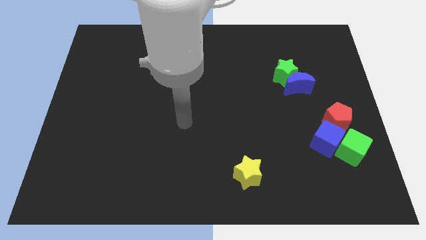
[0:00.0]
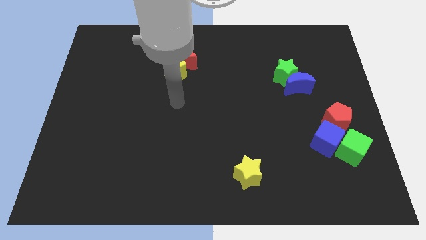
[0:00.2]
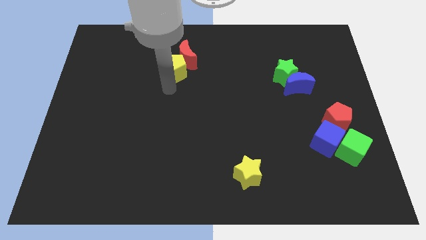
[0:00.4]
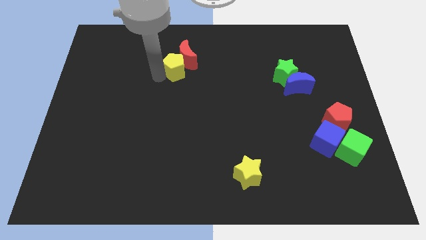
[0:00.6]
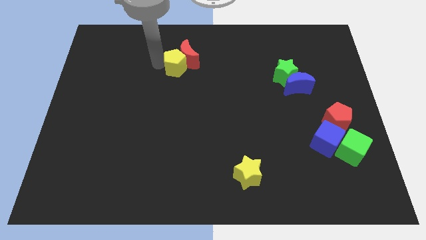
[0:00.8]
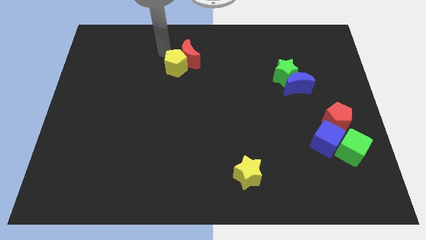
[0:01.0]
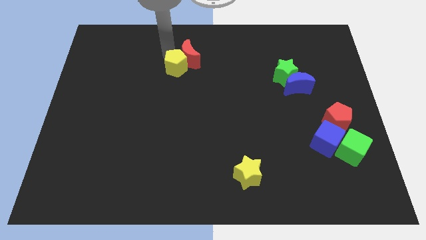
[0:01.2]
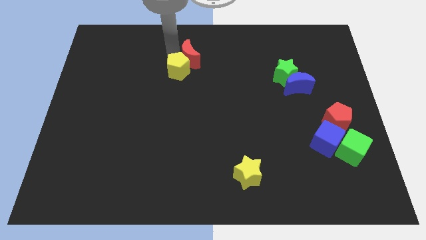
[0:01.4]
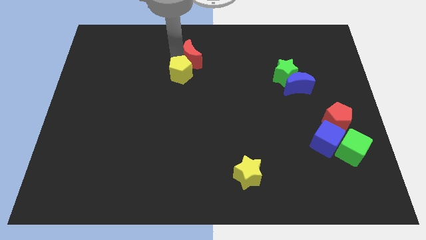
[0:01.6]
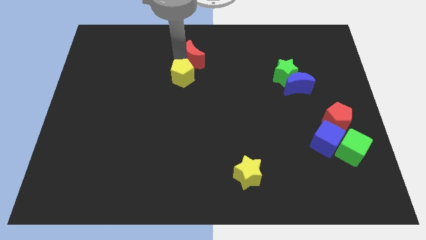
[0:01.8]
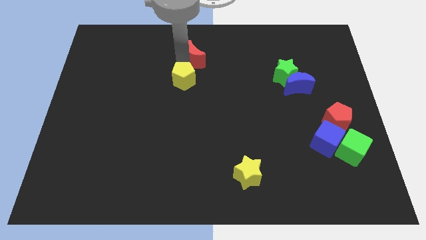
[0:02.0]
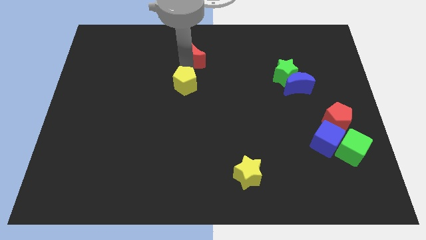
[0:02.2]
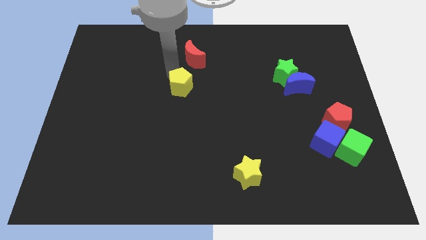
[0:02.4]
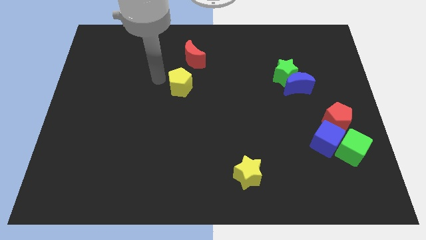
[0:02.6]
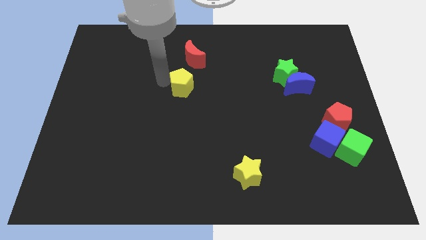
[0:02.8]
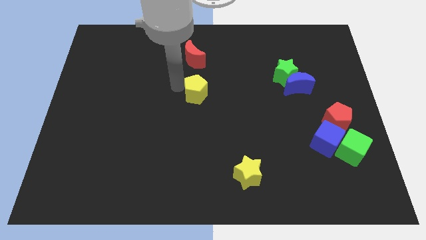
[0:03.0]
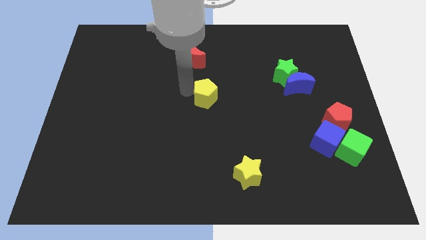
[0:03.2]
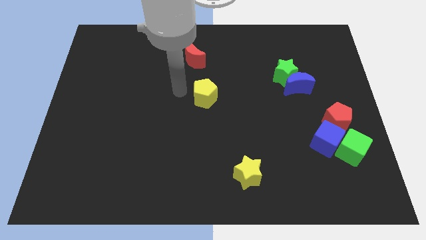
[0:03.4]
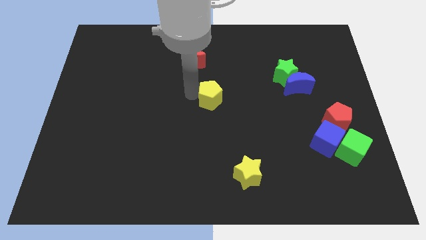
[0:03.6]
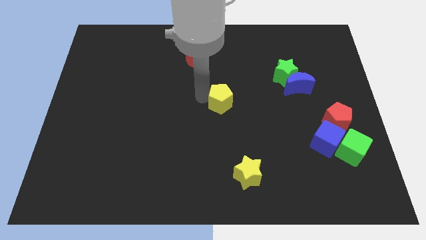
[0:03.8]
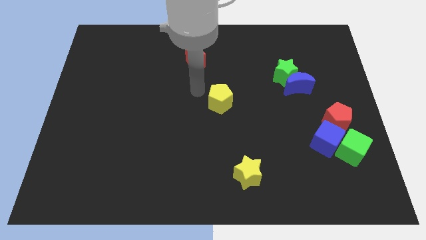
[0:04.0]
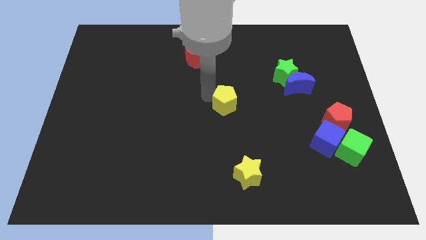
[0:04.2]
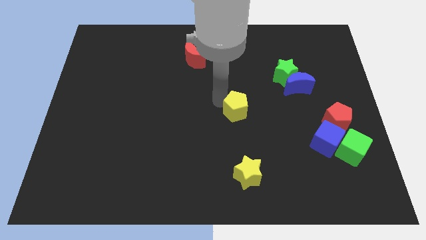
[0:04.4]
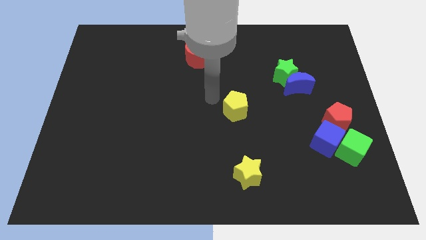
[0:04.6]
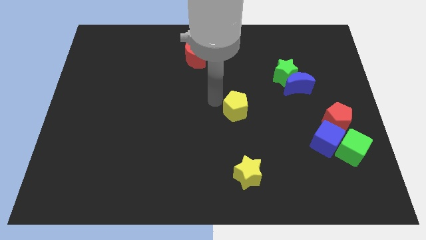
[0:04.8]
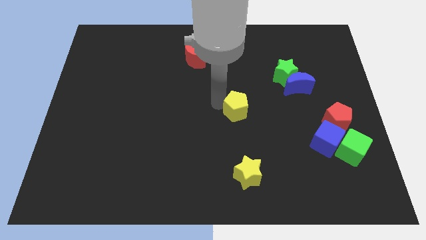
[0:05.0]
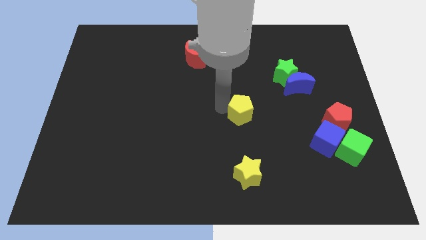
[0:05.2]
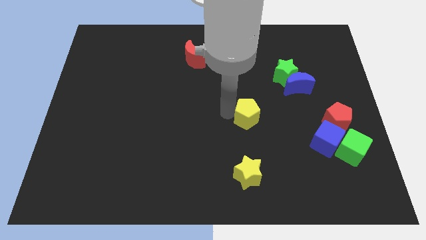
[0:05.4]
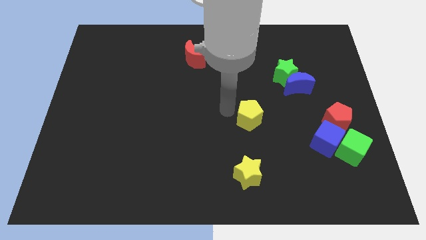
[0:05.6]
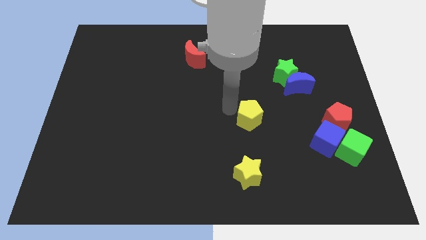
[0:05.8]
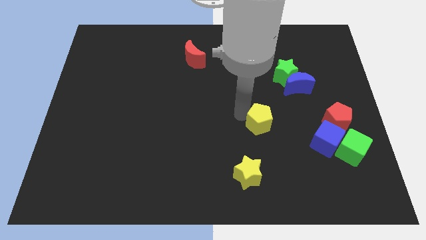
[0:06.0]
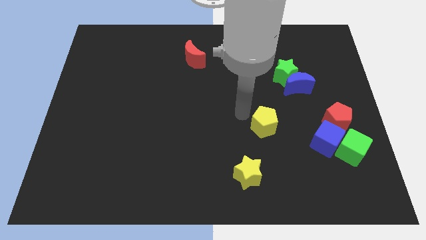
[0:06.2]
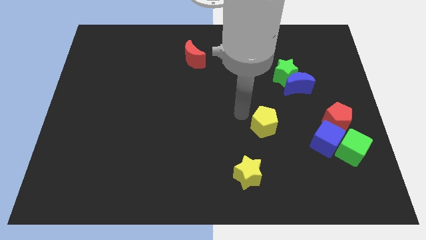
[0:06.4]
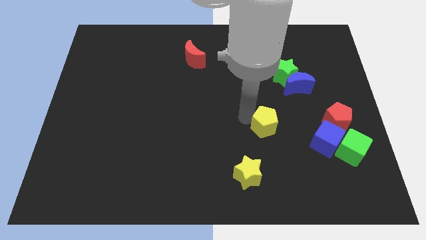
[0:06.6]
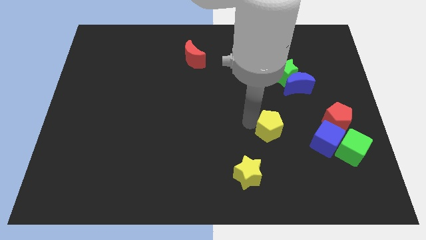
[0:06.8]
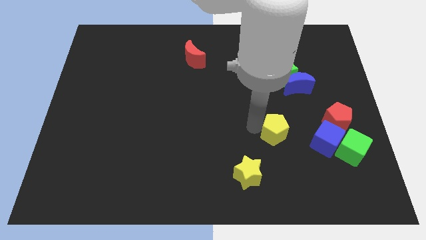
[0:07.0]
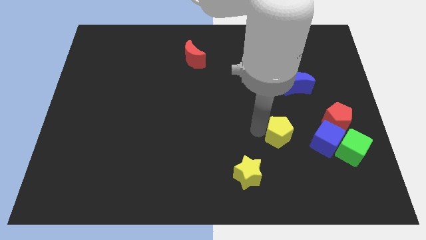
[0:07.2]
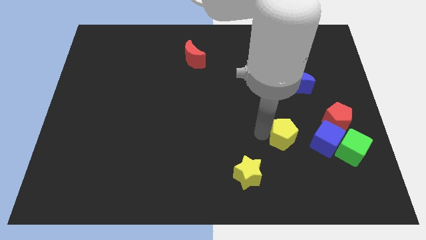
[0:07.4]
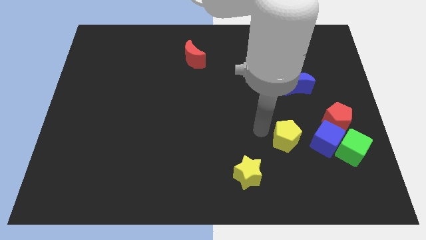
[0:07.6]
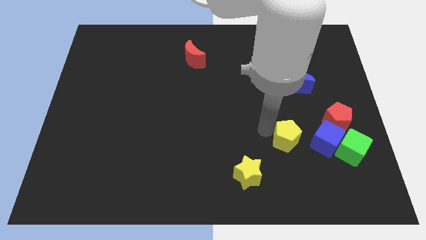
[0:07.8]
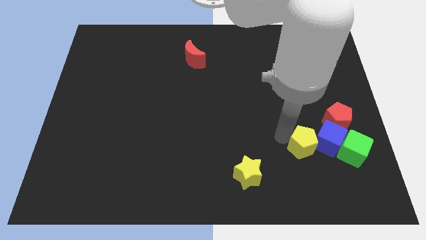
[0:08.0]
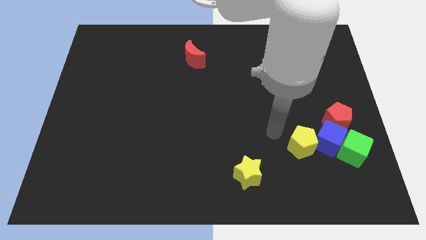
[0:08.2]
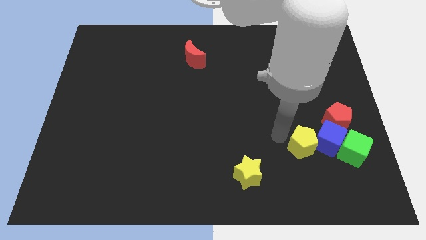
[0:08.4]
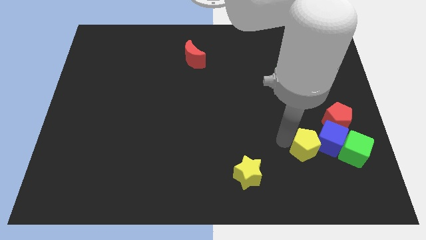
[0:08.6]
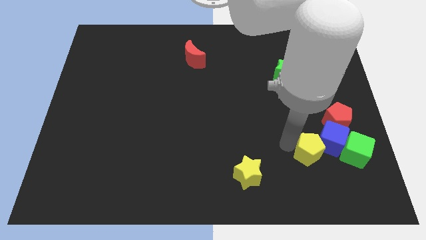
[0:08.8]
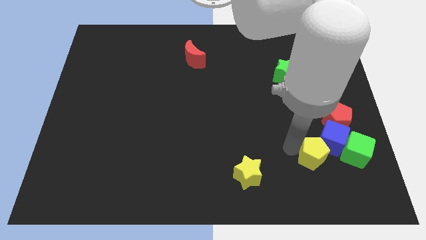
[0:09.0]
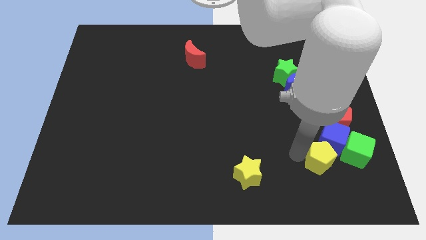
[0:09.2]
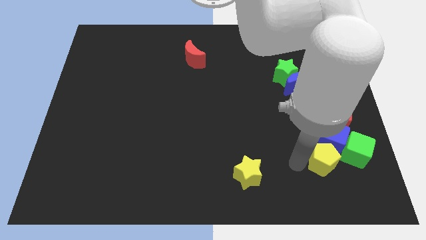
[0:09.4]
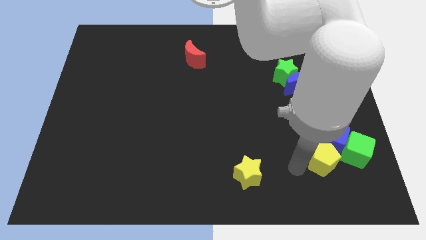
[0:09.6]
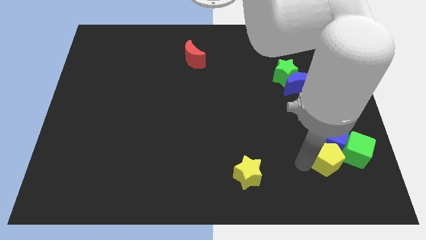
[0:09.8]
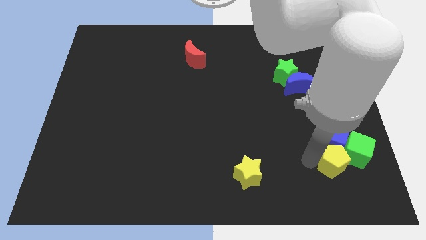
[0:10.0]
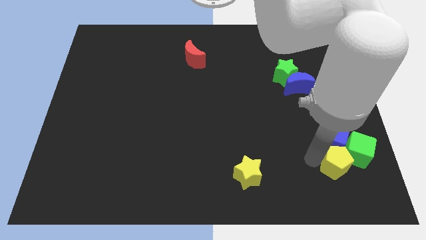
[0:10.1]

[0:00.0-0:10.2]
push the yellow pentagon close to the green cube
